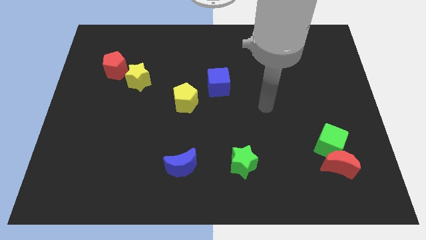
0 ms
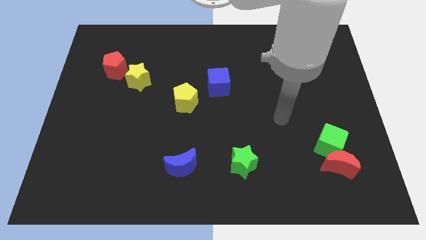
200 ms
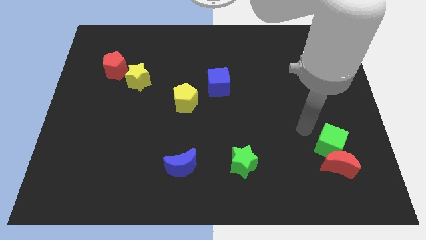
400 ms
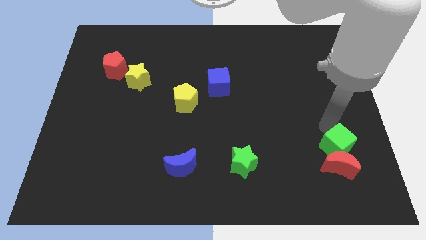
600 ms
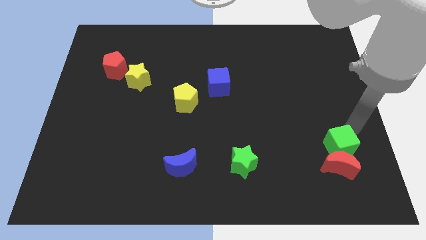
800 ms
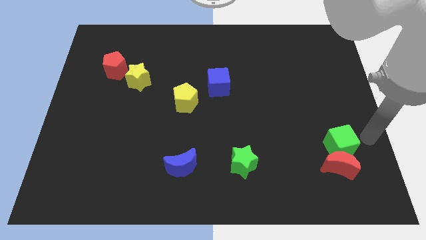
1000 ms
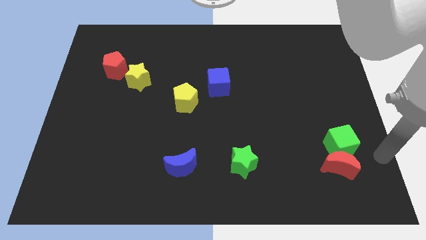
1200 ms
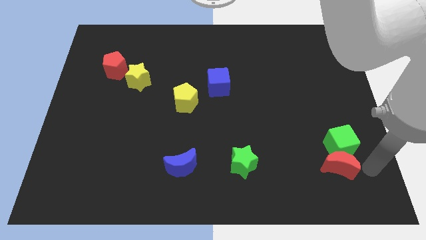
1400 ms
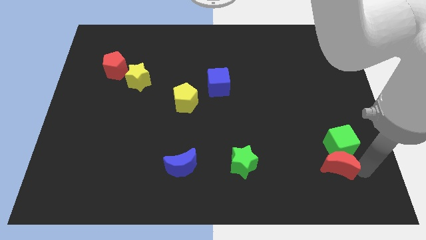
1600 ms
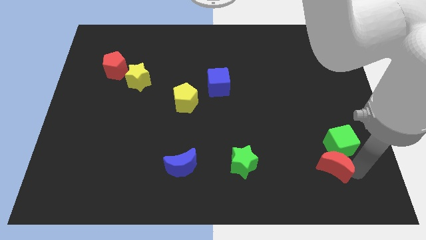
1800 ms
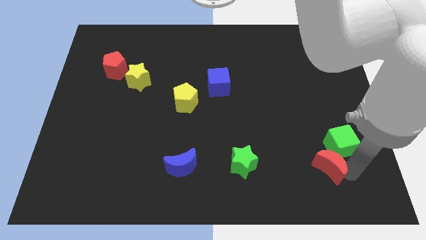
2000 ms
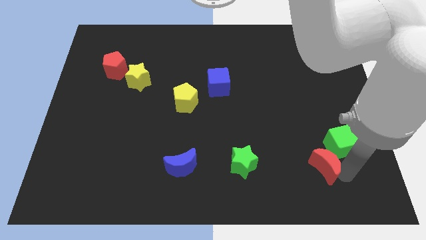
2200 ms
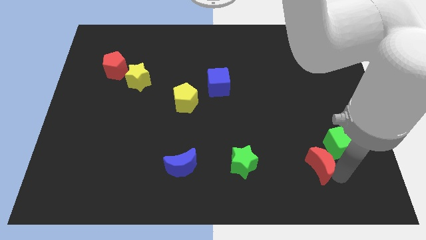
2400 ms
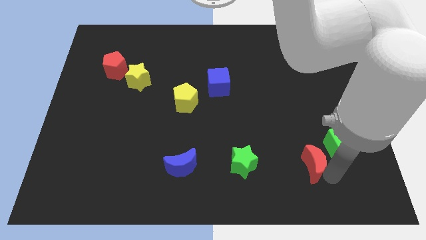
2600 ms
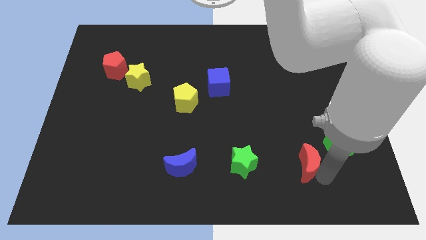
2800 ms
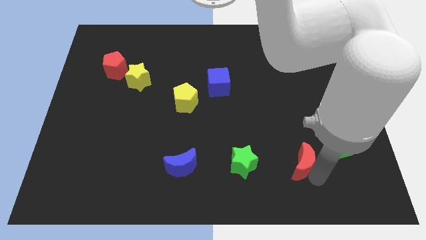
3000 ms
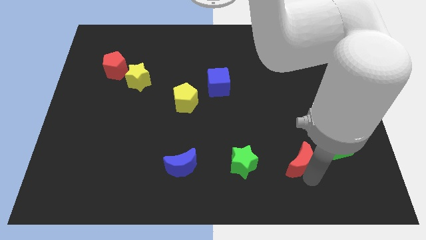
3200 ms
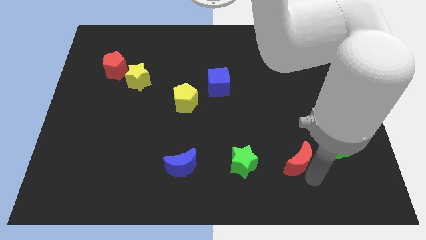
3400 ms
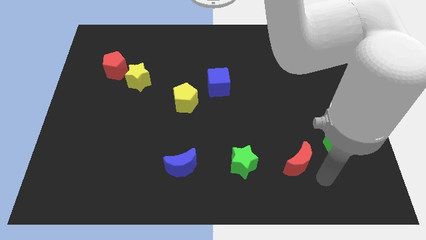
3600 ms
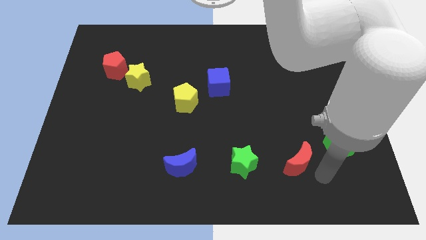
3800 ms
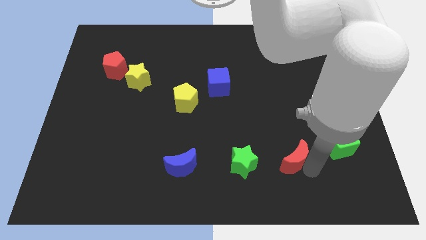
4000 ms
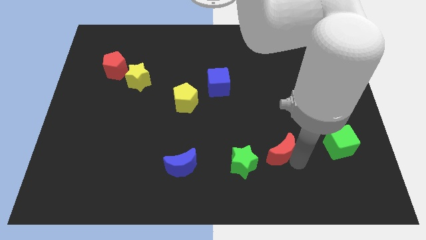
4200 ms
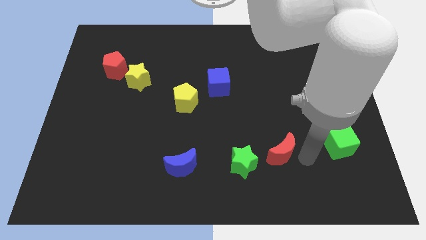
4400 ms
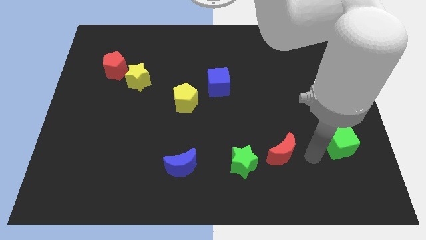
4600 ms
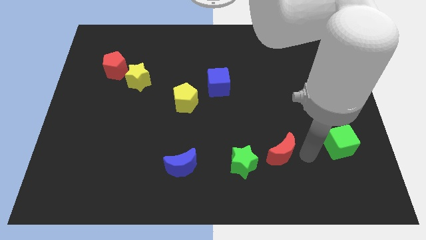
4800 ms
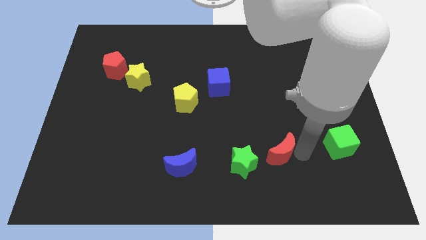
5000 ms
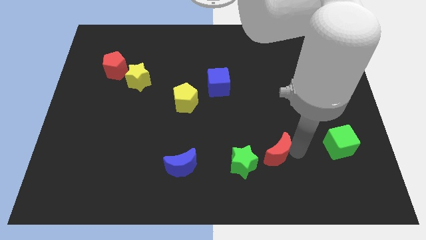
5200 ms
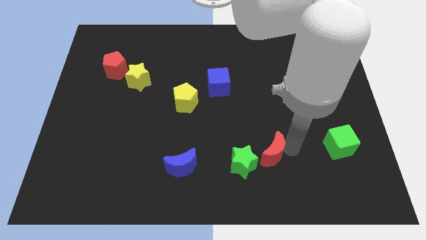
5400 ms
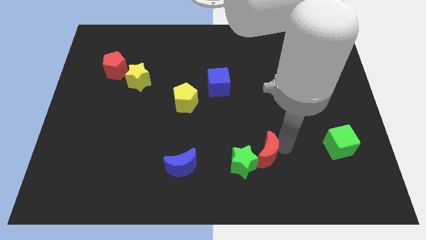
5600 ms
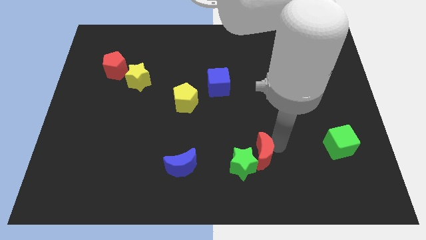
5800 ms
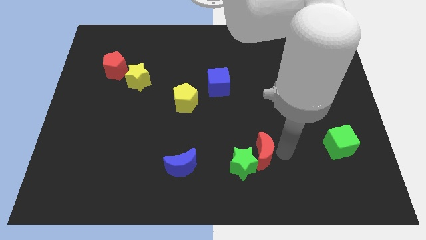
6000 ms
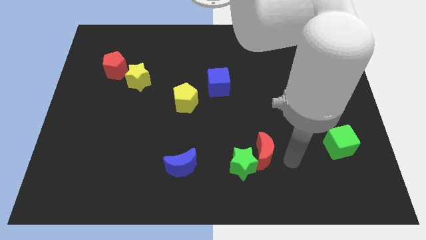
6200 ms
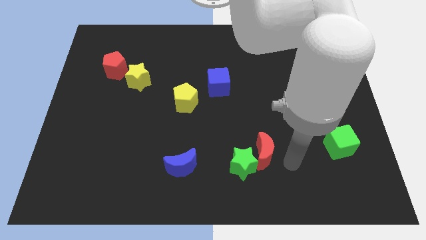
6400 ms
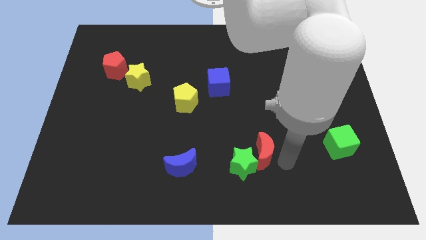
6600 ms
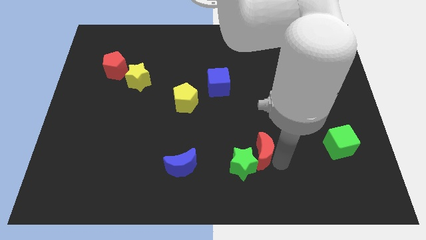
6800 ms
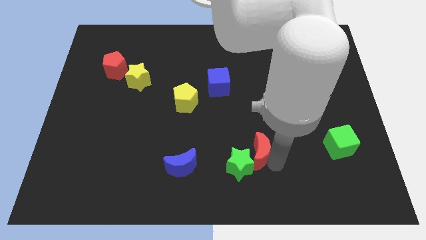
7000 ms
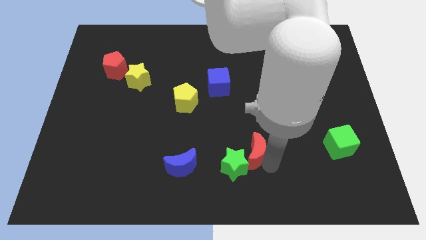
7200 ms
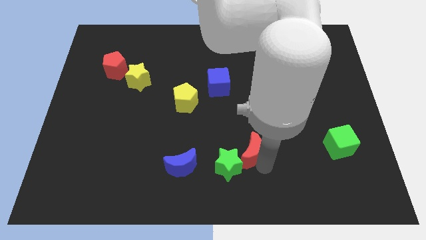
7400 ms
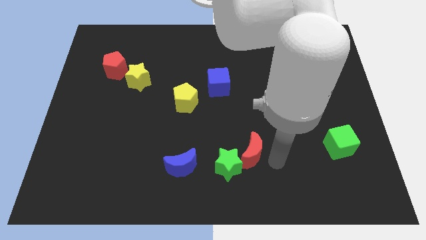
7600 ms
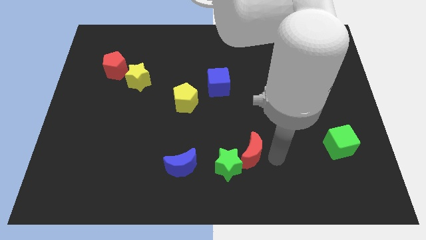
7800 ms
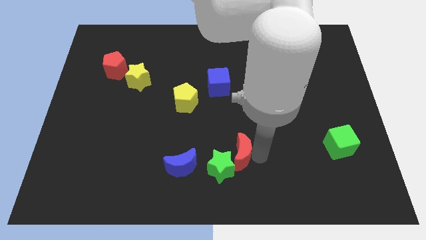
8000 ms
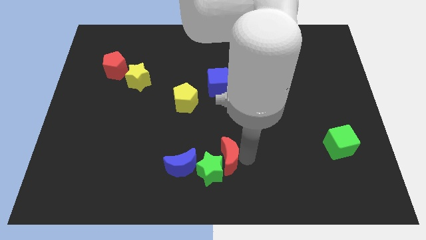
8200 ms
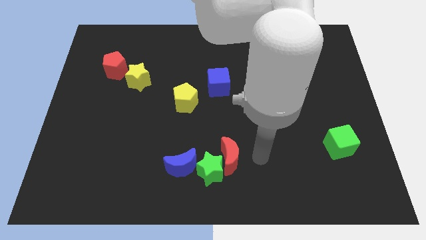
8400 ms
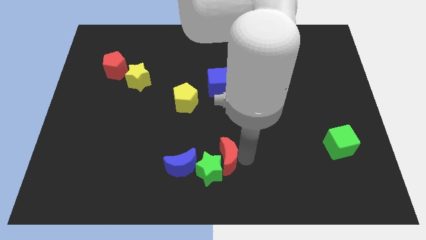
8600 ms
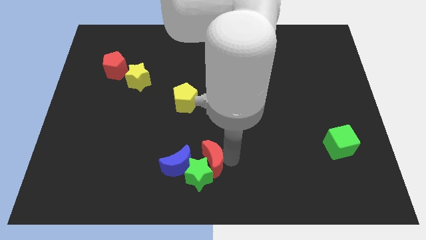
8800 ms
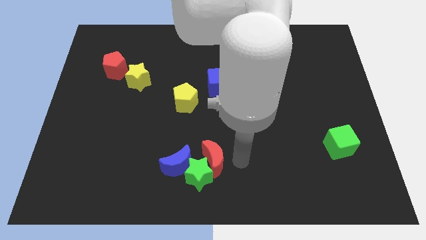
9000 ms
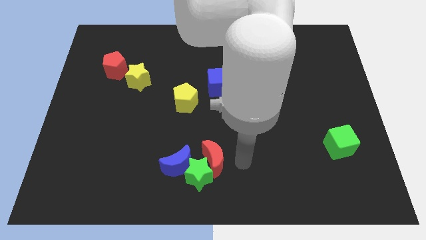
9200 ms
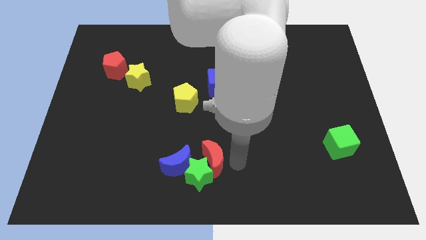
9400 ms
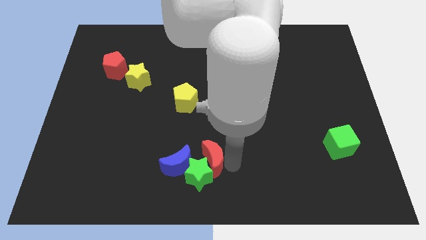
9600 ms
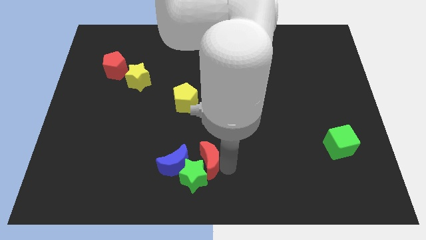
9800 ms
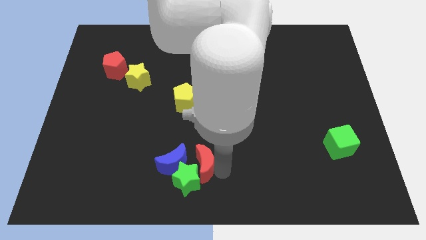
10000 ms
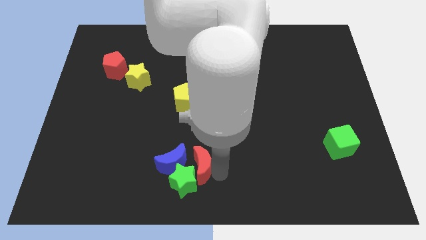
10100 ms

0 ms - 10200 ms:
push the red moon towards the blue moon

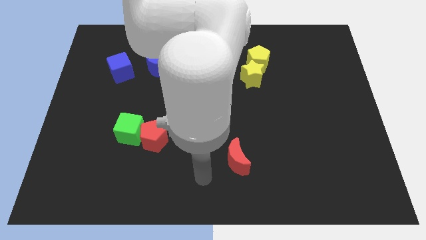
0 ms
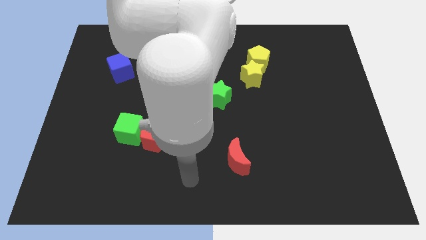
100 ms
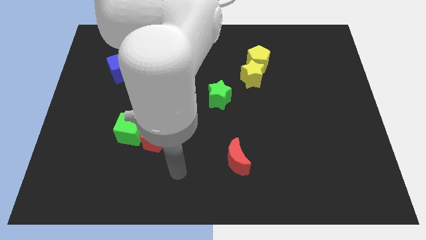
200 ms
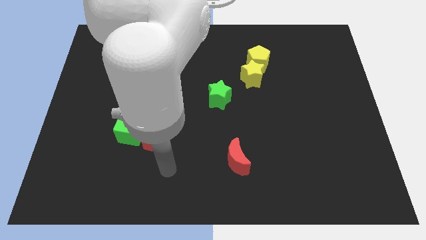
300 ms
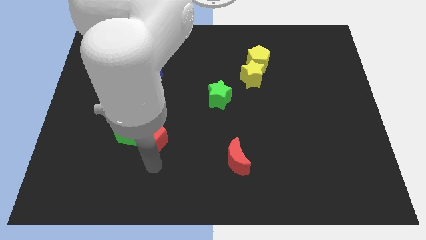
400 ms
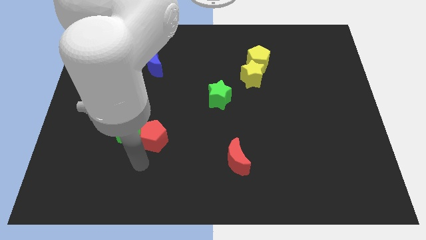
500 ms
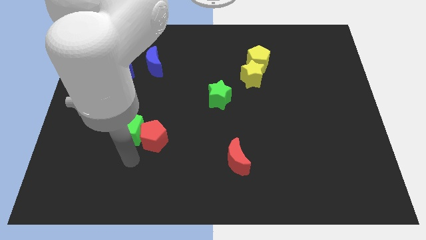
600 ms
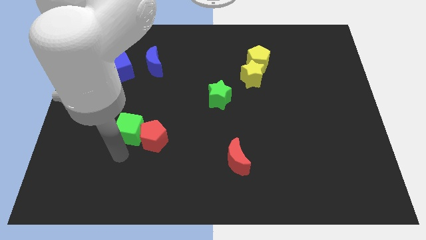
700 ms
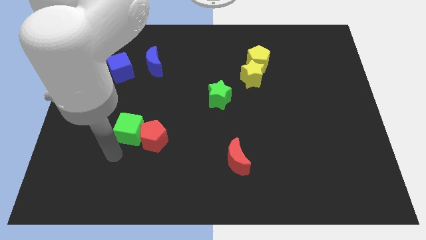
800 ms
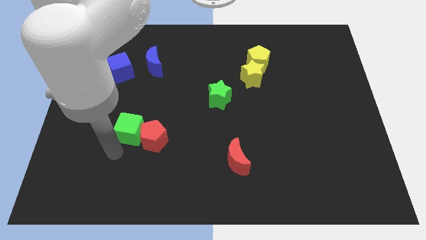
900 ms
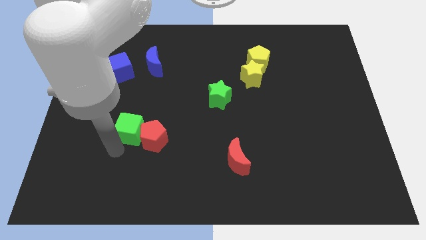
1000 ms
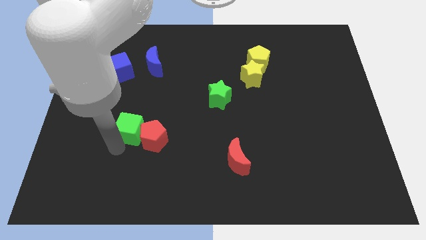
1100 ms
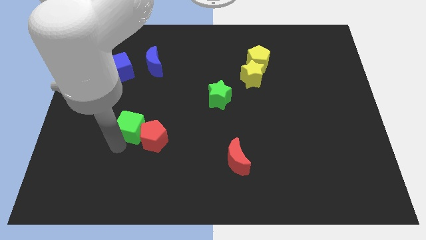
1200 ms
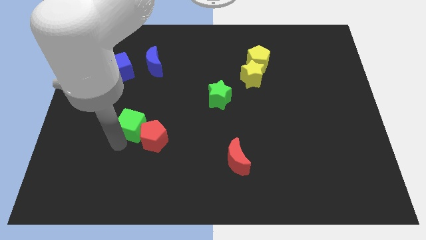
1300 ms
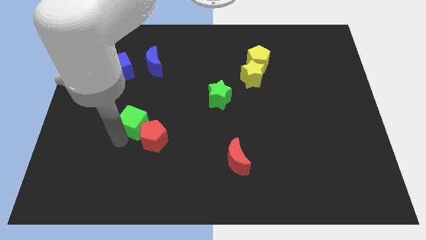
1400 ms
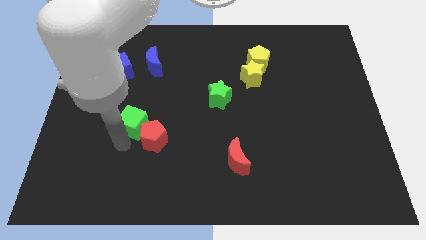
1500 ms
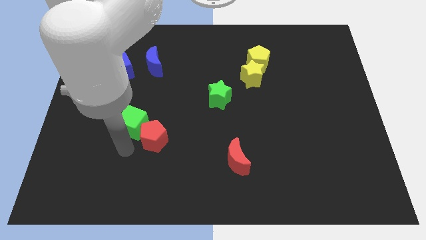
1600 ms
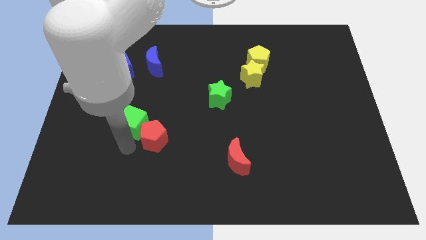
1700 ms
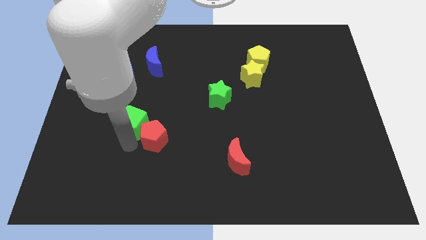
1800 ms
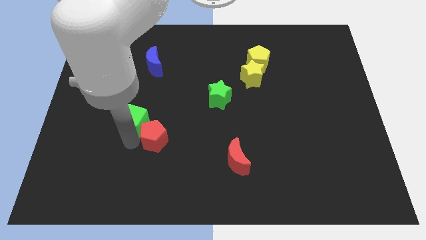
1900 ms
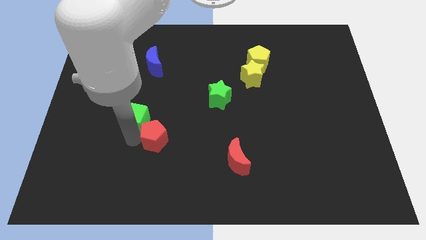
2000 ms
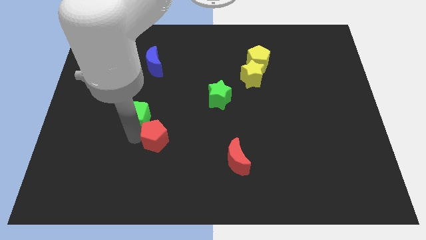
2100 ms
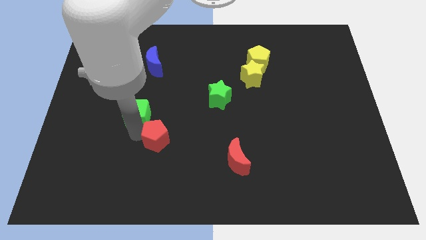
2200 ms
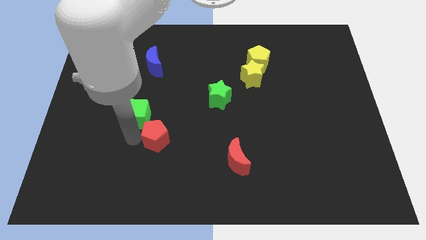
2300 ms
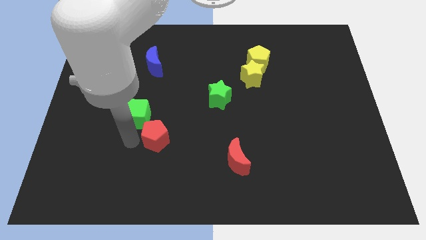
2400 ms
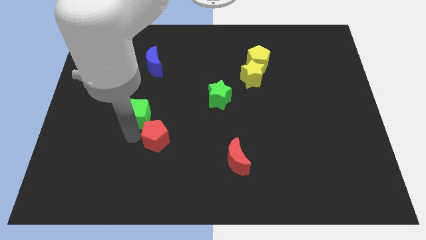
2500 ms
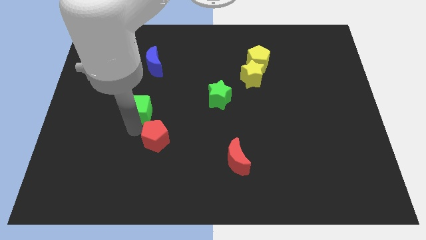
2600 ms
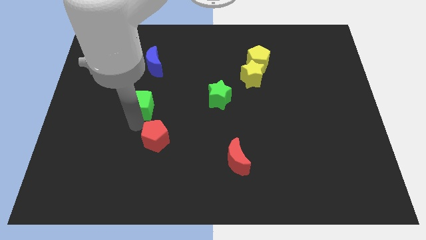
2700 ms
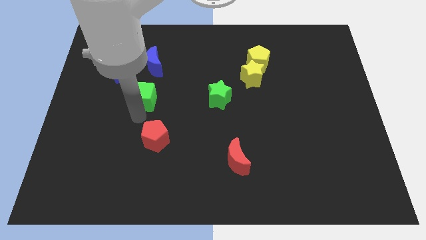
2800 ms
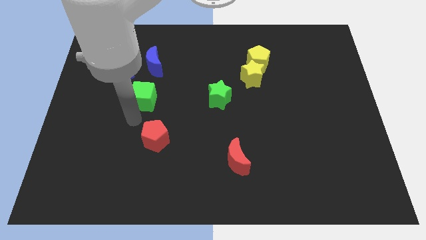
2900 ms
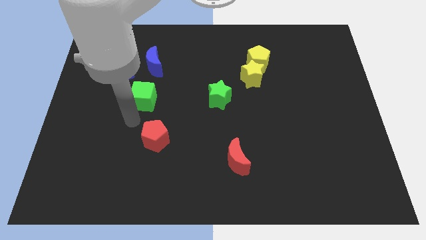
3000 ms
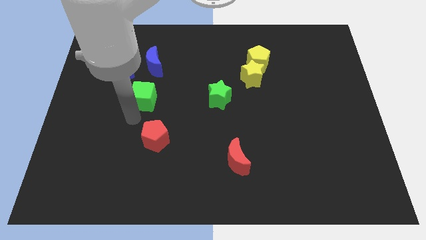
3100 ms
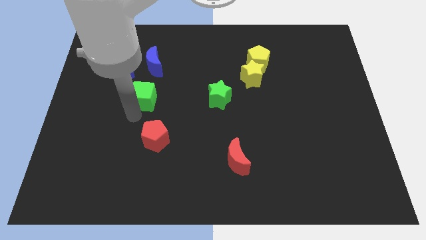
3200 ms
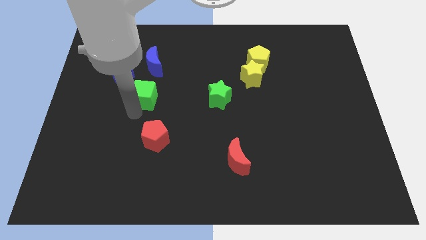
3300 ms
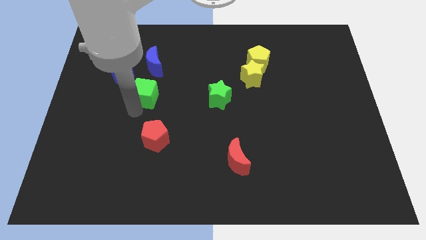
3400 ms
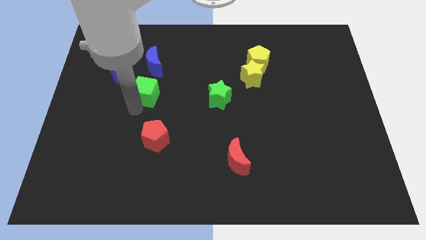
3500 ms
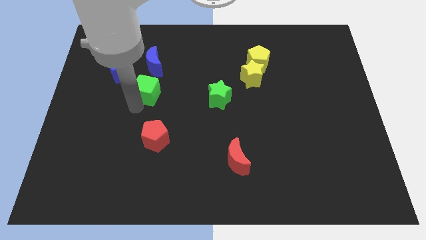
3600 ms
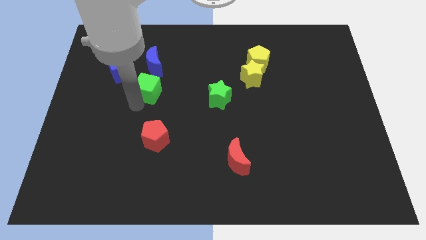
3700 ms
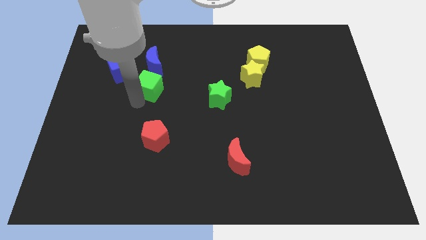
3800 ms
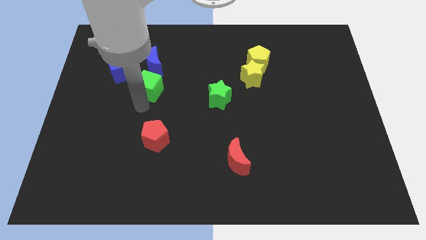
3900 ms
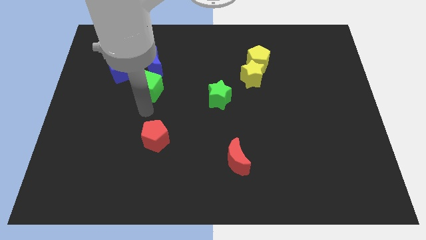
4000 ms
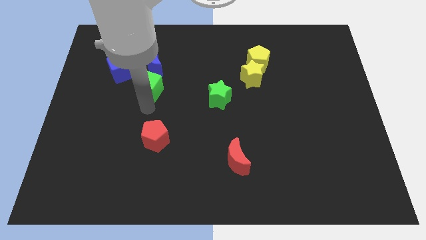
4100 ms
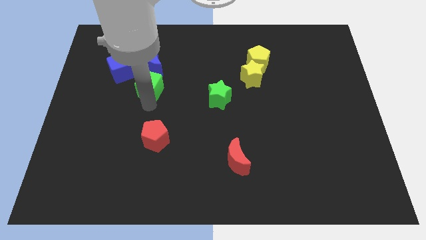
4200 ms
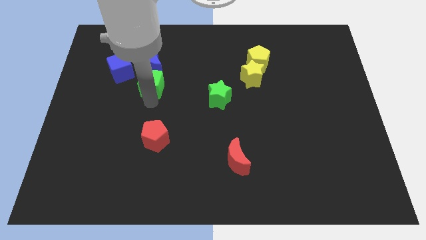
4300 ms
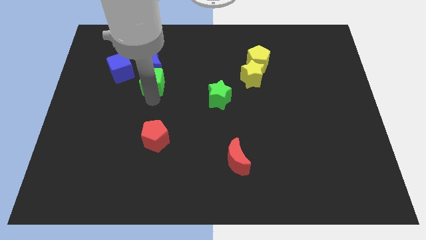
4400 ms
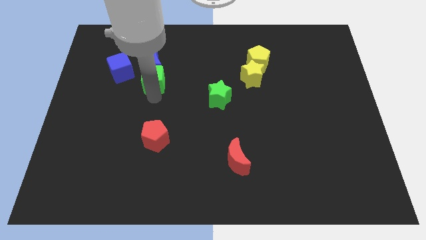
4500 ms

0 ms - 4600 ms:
push the green cube next to the blue moon
